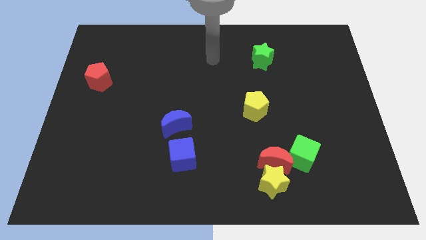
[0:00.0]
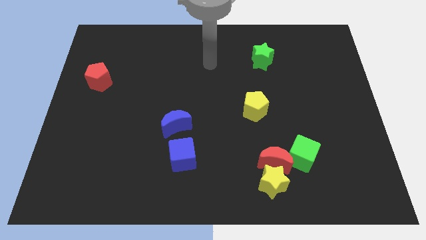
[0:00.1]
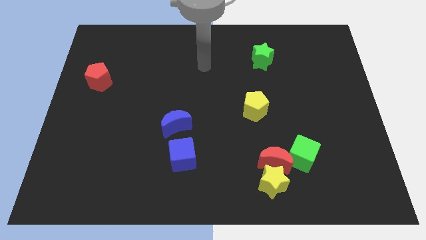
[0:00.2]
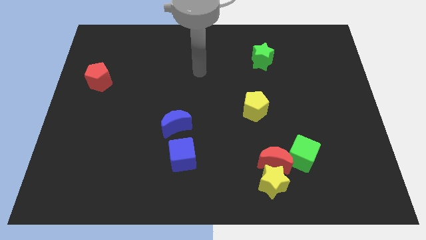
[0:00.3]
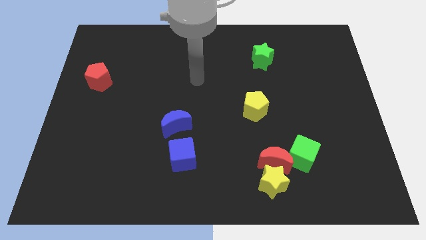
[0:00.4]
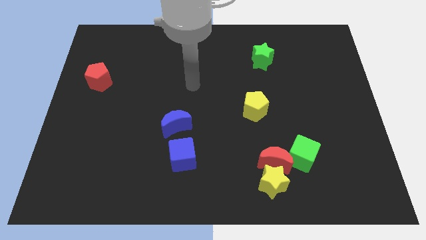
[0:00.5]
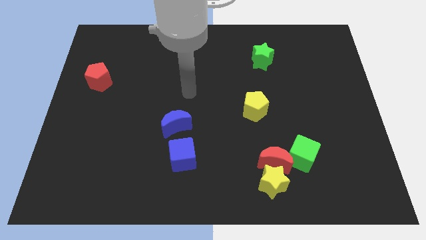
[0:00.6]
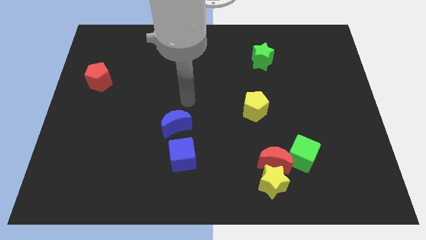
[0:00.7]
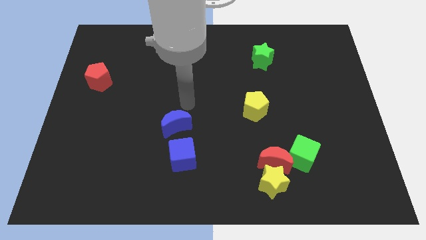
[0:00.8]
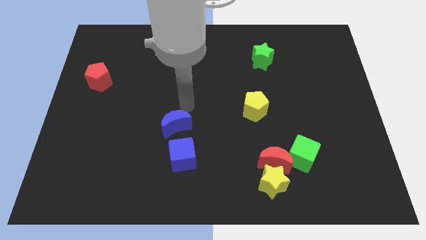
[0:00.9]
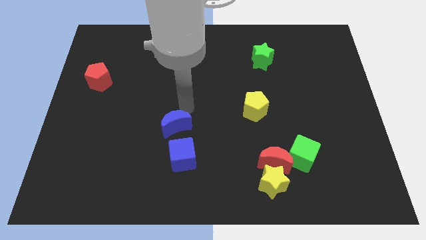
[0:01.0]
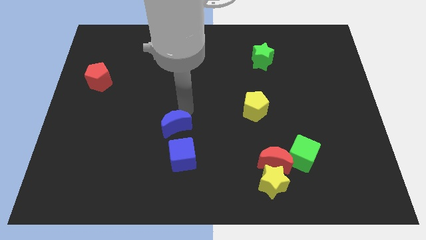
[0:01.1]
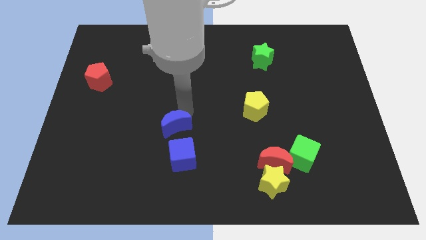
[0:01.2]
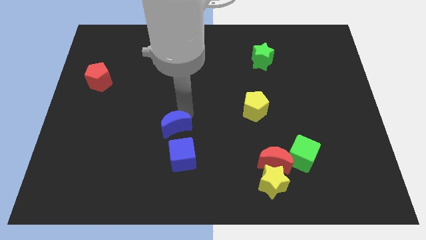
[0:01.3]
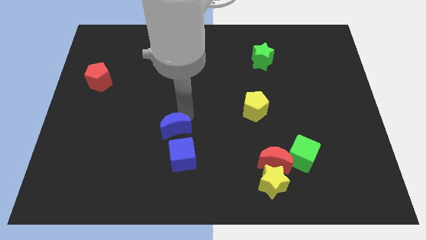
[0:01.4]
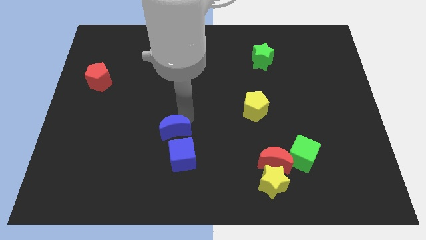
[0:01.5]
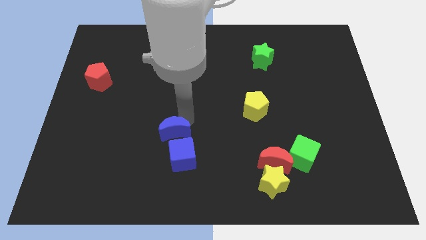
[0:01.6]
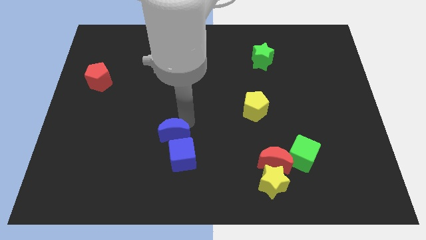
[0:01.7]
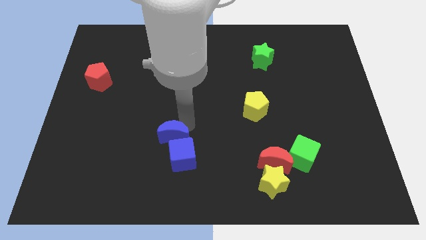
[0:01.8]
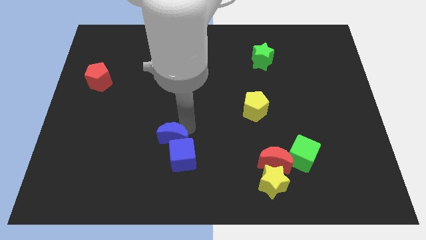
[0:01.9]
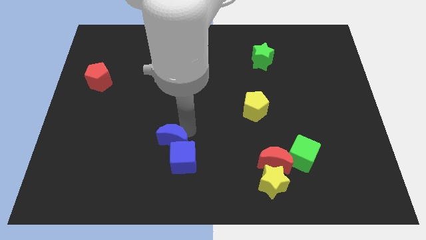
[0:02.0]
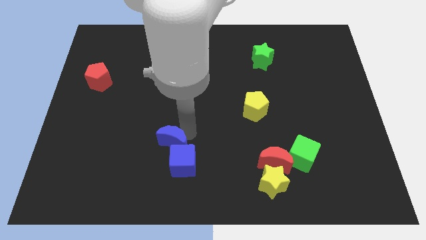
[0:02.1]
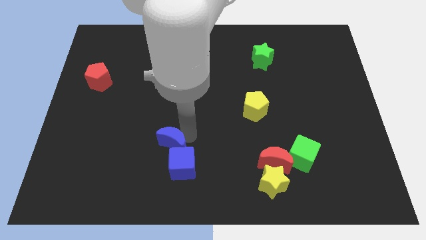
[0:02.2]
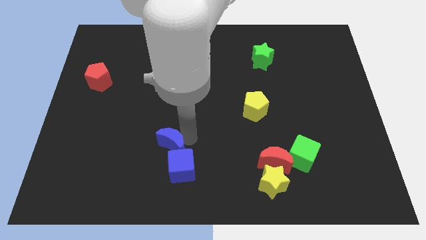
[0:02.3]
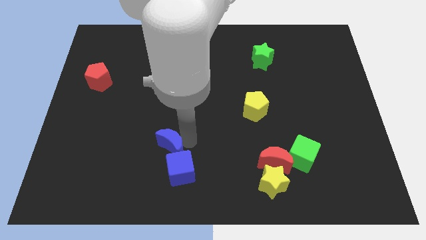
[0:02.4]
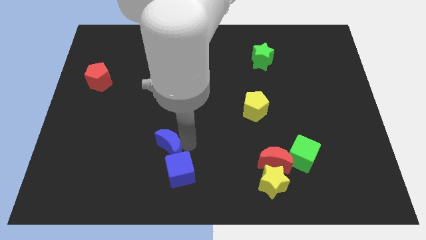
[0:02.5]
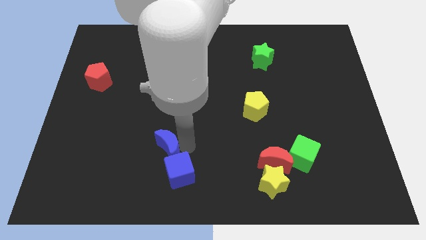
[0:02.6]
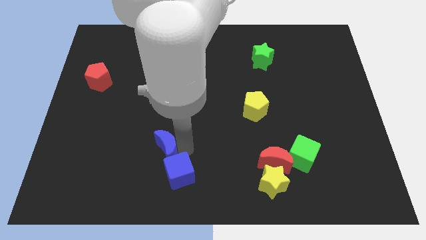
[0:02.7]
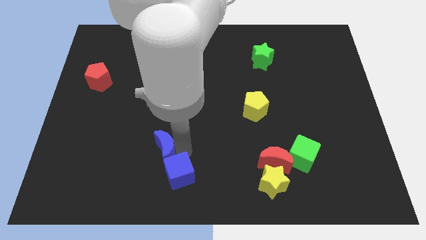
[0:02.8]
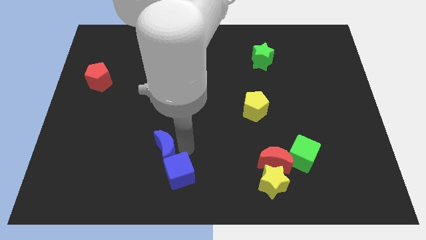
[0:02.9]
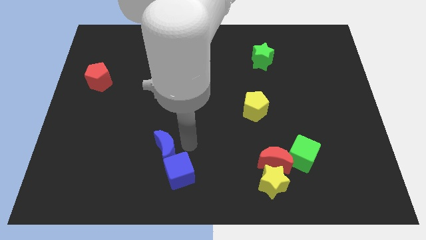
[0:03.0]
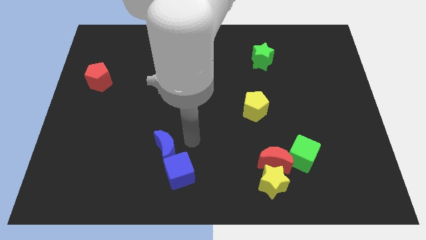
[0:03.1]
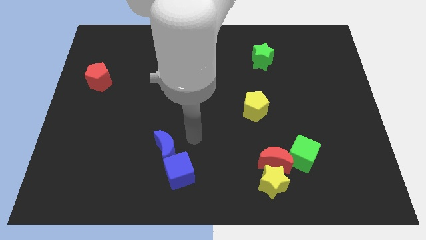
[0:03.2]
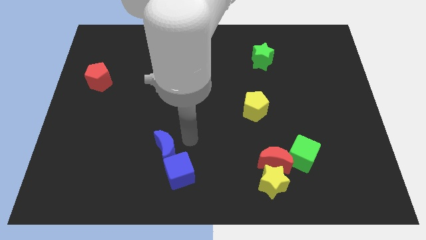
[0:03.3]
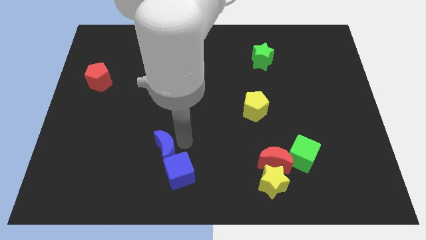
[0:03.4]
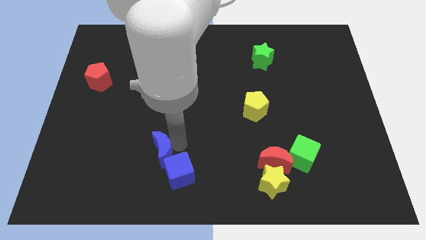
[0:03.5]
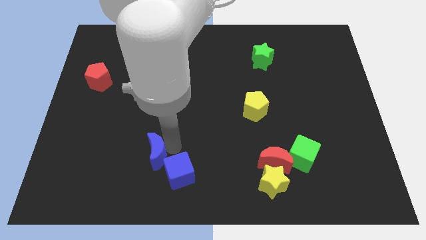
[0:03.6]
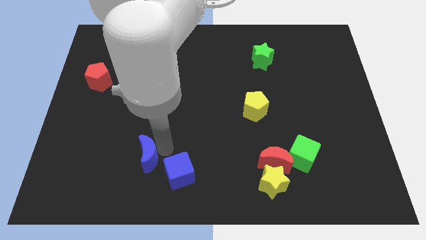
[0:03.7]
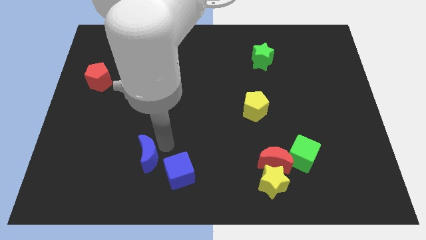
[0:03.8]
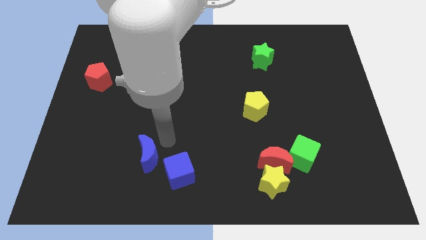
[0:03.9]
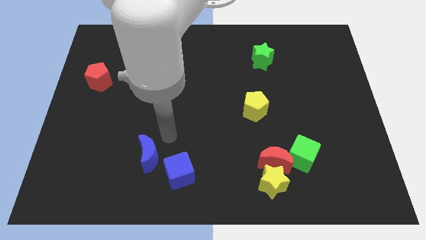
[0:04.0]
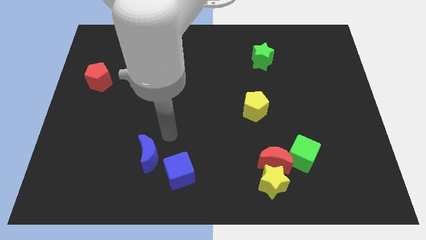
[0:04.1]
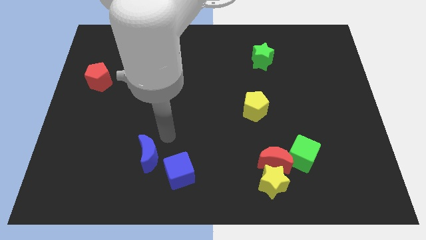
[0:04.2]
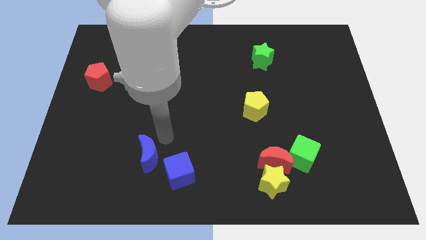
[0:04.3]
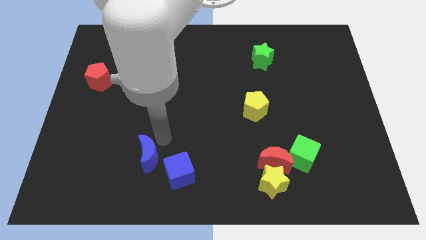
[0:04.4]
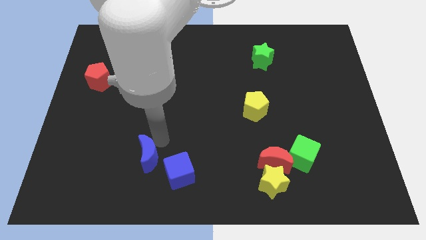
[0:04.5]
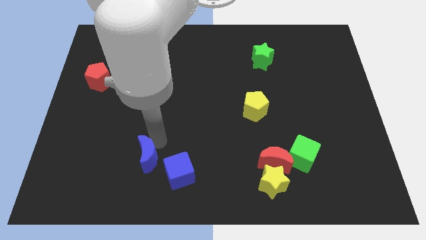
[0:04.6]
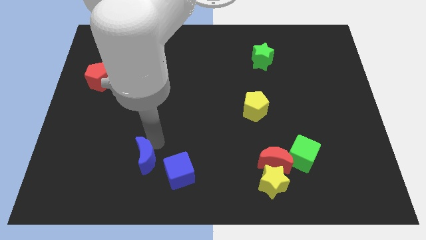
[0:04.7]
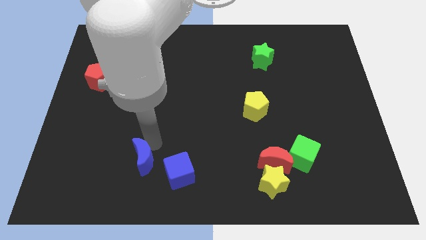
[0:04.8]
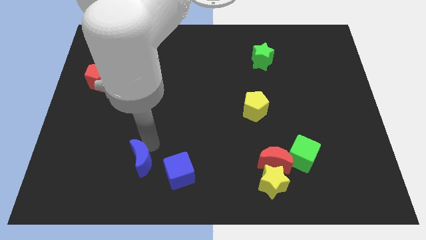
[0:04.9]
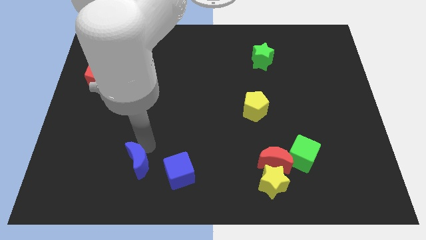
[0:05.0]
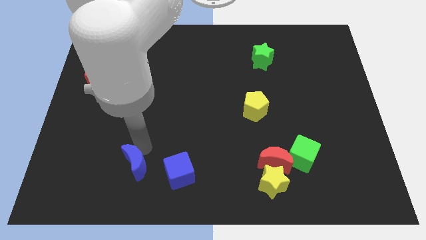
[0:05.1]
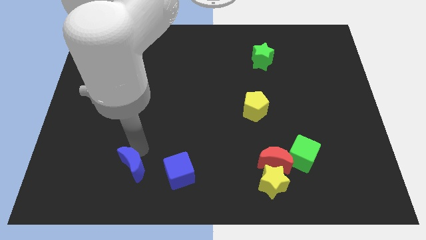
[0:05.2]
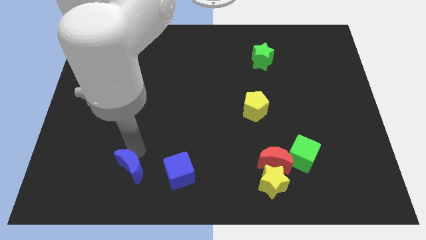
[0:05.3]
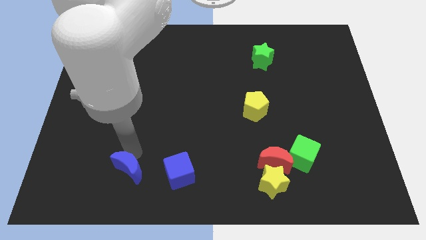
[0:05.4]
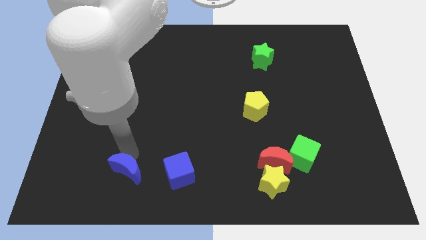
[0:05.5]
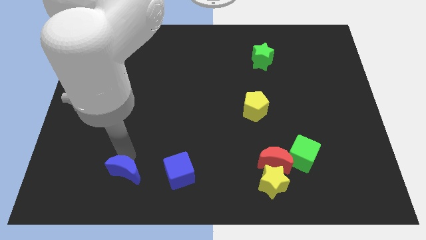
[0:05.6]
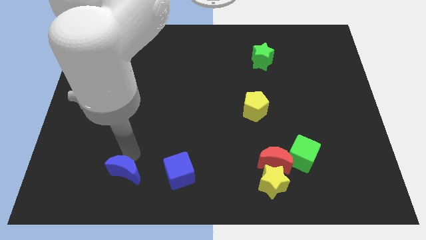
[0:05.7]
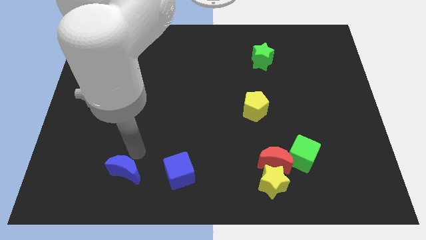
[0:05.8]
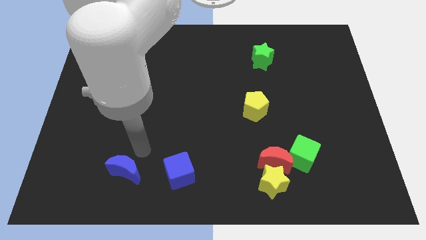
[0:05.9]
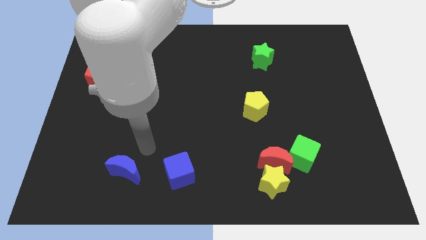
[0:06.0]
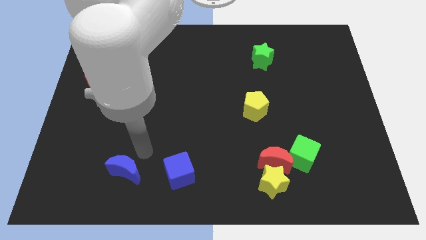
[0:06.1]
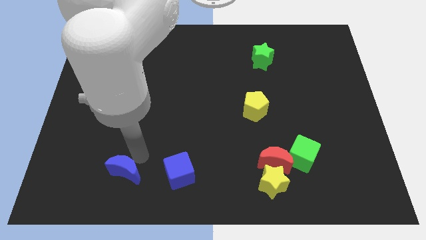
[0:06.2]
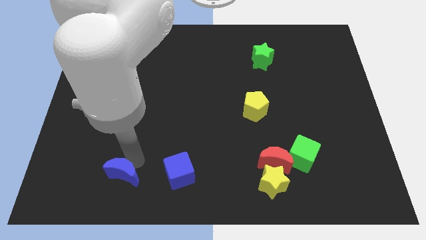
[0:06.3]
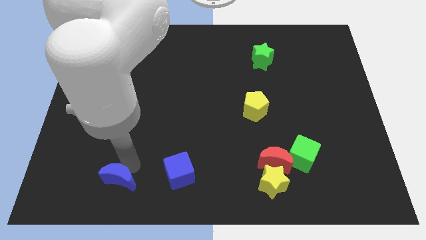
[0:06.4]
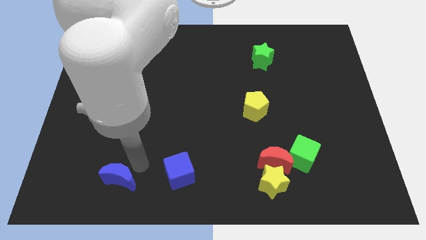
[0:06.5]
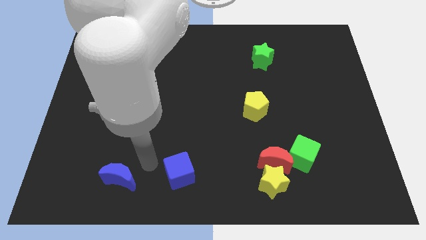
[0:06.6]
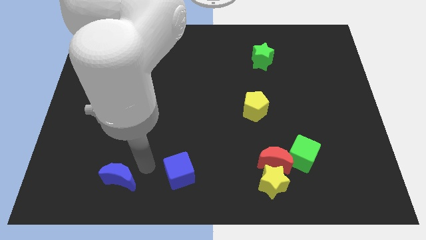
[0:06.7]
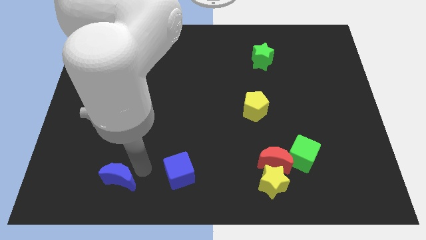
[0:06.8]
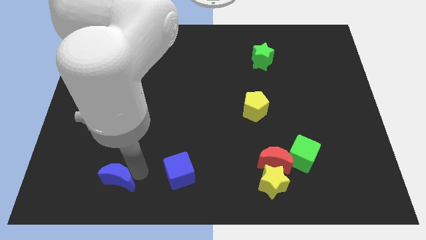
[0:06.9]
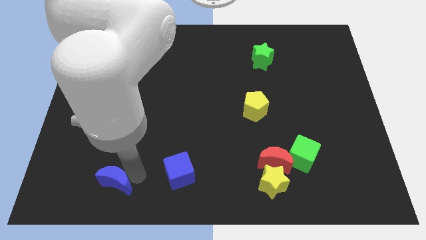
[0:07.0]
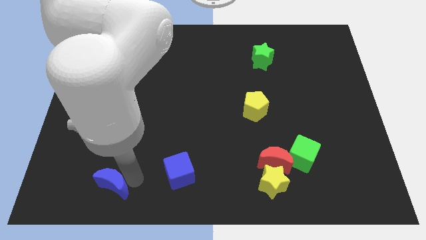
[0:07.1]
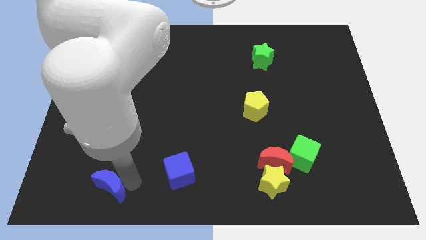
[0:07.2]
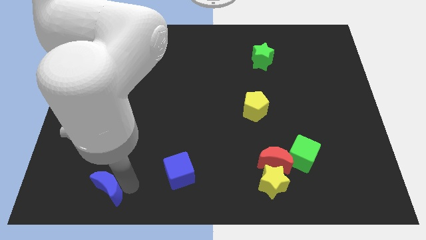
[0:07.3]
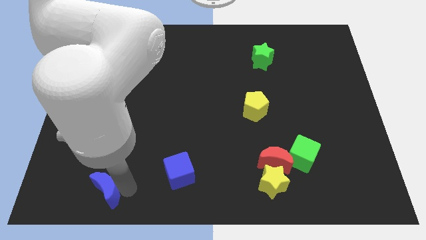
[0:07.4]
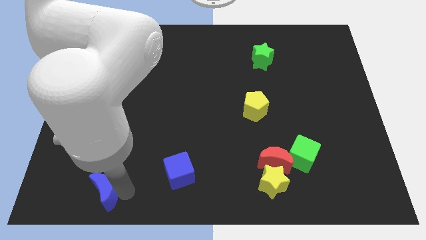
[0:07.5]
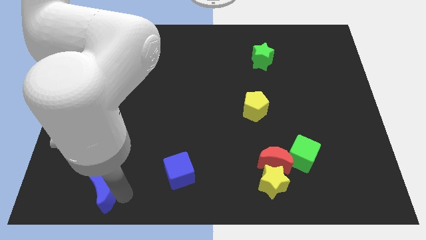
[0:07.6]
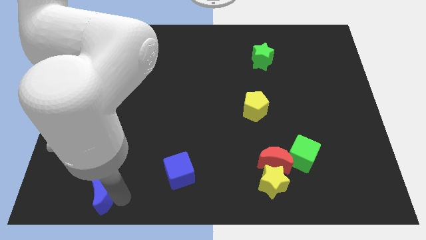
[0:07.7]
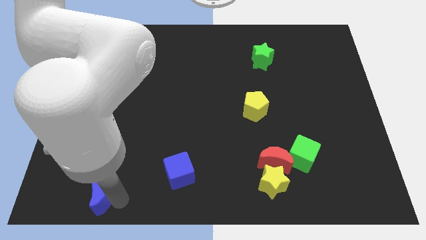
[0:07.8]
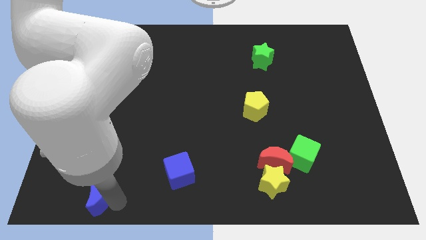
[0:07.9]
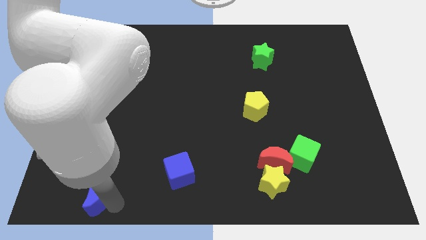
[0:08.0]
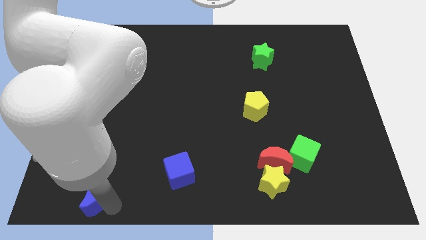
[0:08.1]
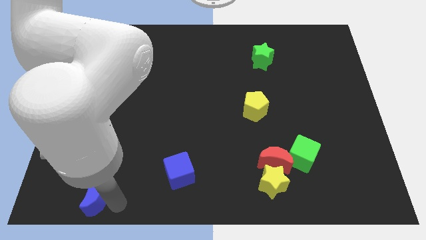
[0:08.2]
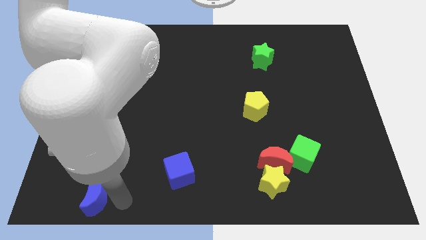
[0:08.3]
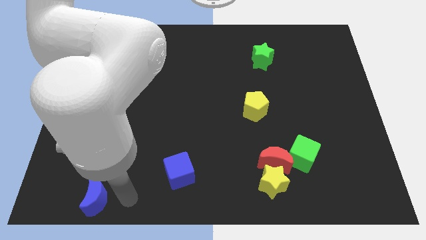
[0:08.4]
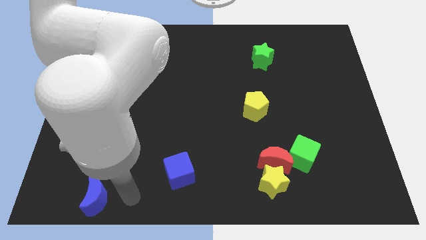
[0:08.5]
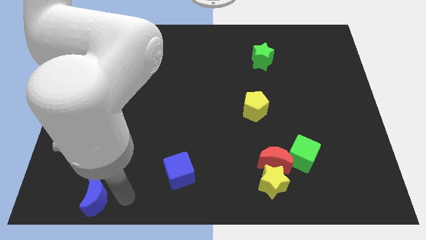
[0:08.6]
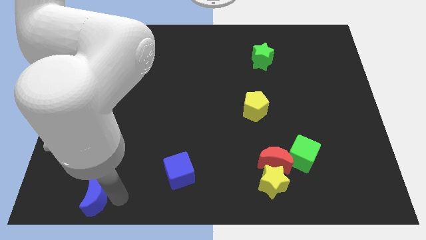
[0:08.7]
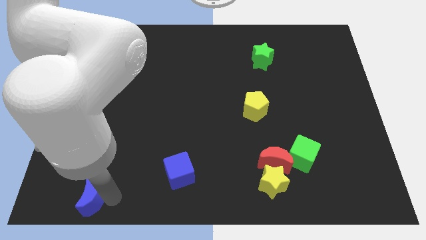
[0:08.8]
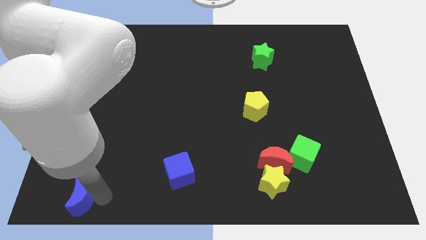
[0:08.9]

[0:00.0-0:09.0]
push the blue moon to the bottom left corner
